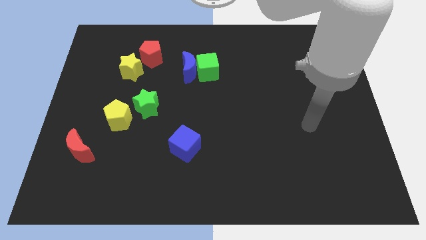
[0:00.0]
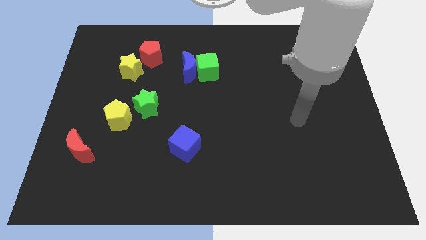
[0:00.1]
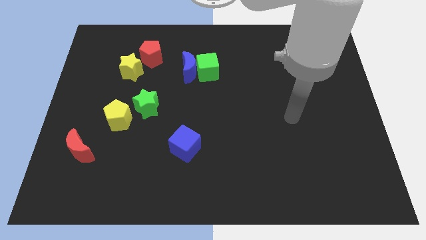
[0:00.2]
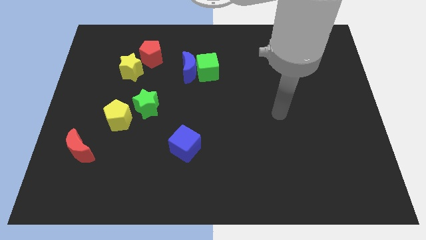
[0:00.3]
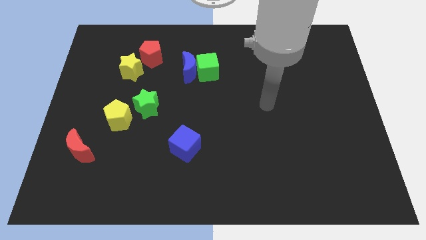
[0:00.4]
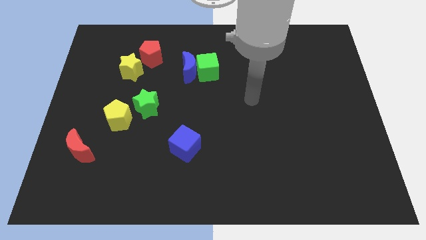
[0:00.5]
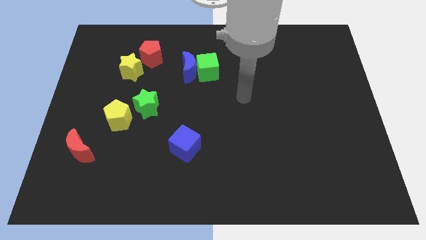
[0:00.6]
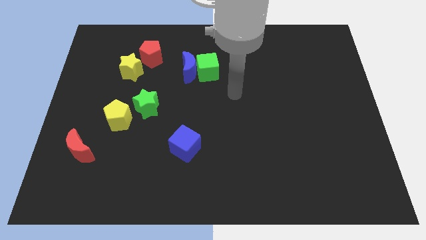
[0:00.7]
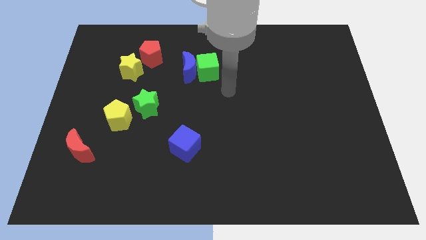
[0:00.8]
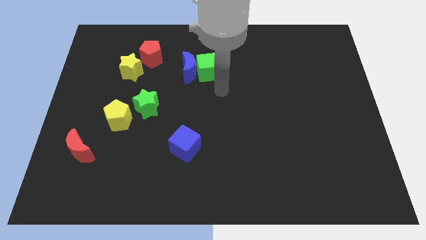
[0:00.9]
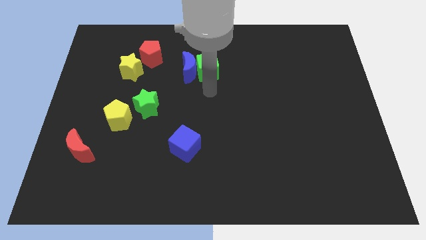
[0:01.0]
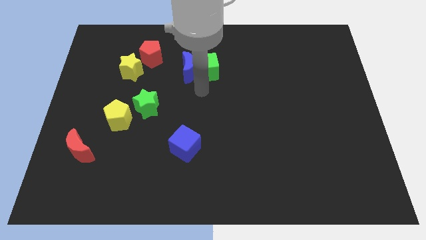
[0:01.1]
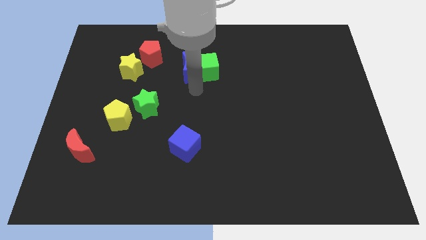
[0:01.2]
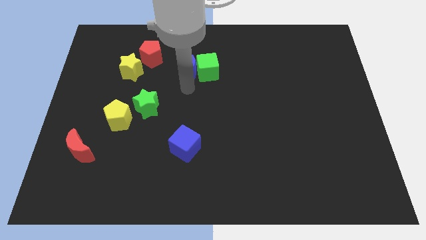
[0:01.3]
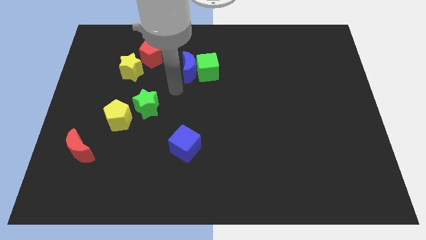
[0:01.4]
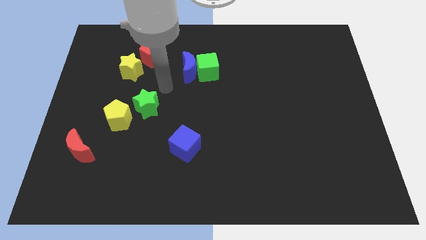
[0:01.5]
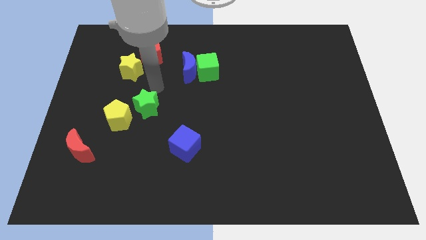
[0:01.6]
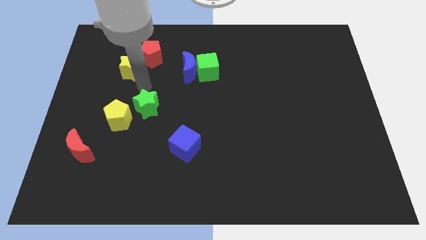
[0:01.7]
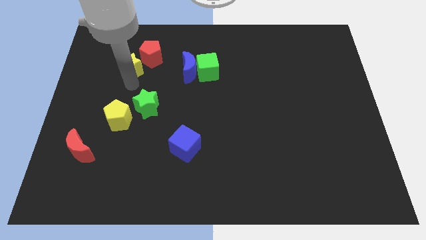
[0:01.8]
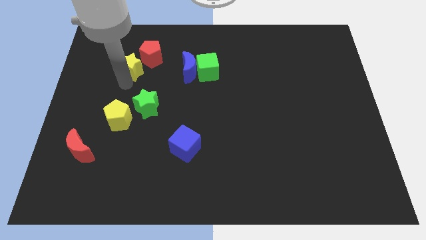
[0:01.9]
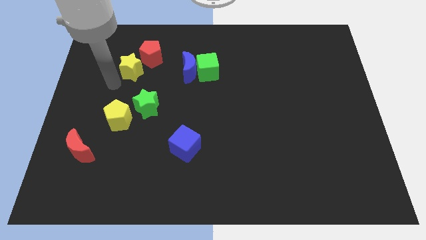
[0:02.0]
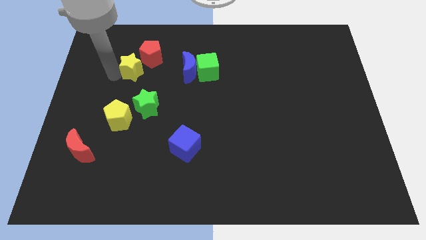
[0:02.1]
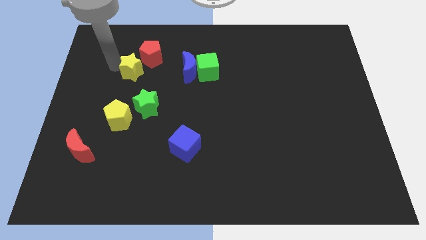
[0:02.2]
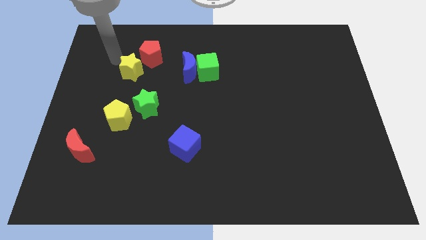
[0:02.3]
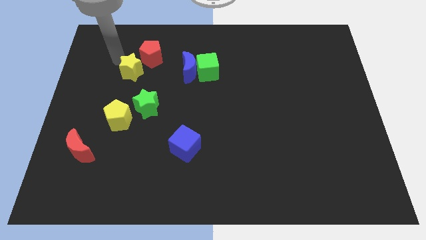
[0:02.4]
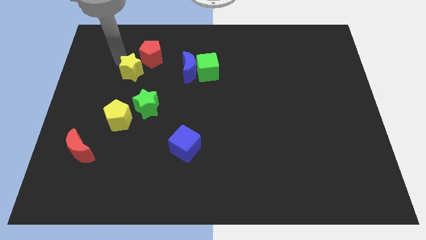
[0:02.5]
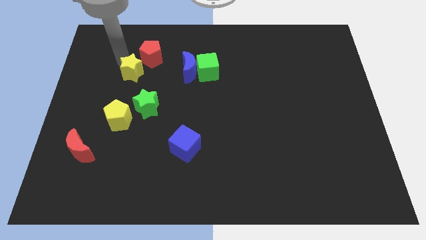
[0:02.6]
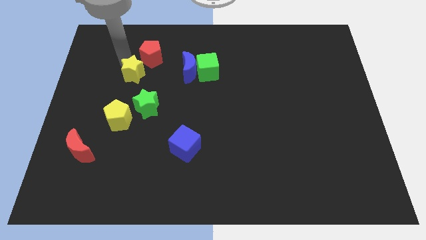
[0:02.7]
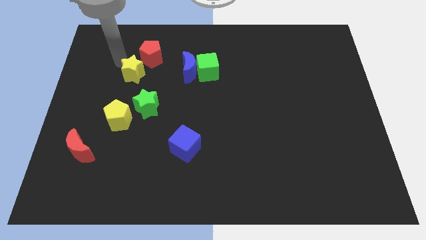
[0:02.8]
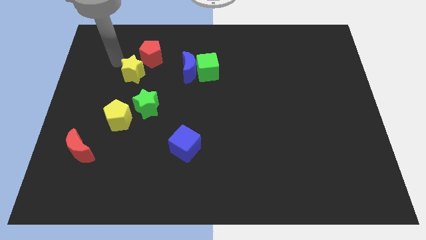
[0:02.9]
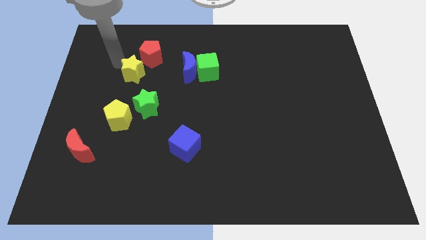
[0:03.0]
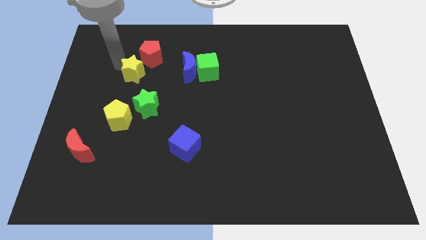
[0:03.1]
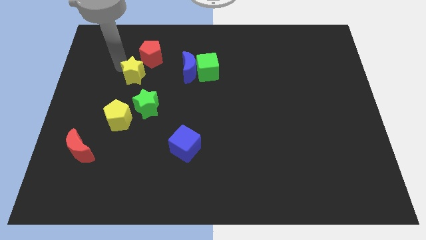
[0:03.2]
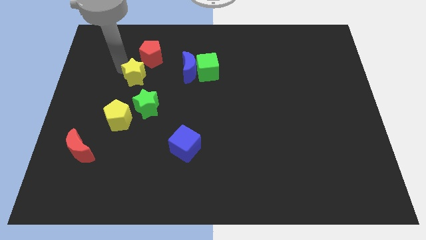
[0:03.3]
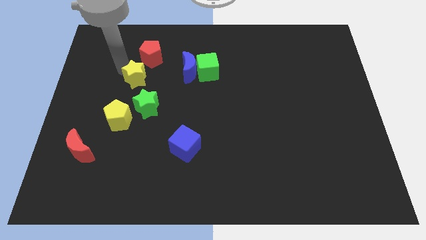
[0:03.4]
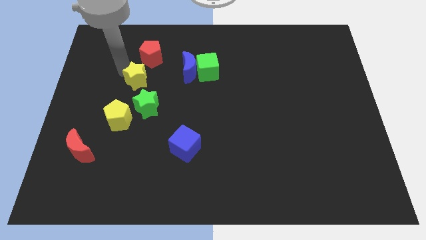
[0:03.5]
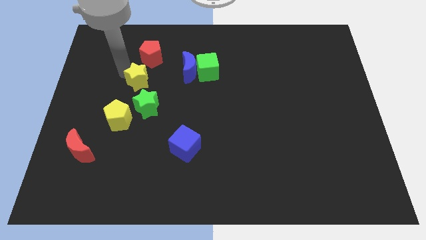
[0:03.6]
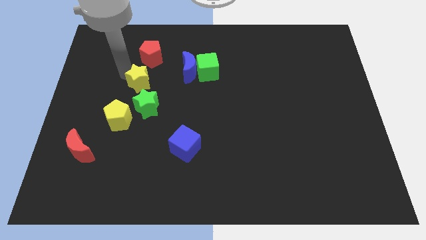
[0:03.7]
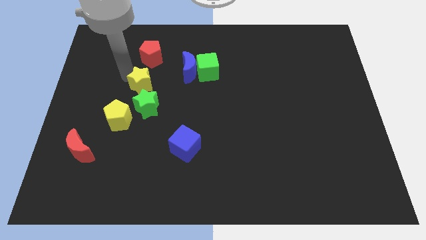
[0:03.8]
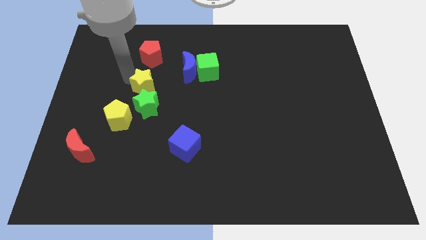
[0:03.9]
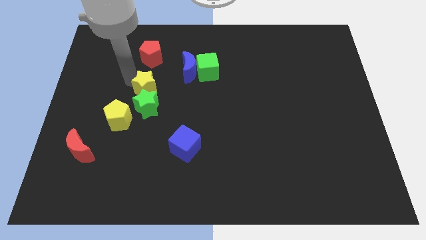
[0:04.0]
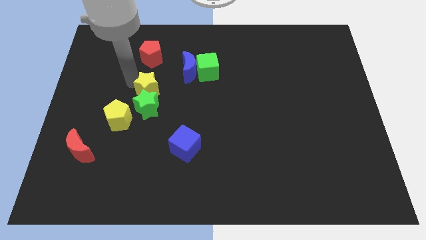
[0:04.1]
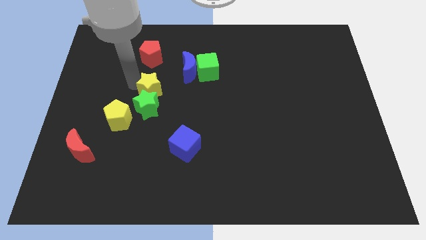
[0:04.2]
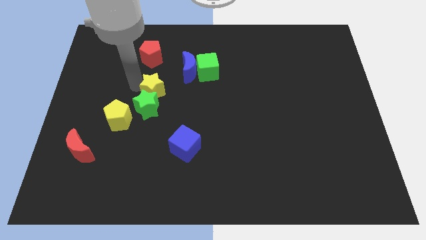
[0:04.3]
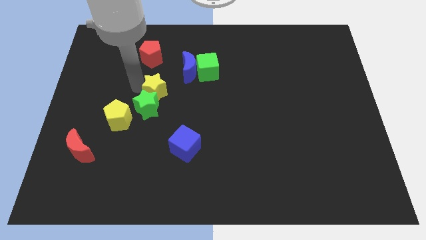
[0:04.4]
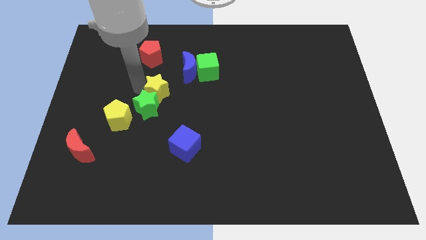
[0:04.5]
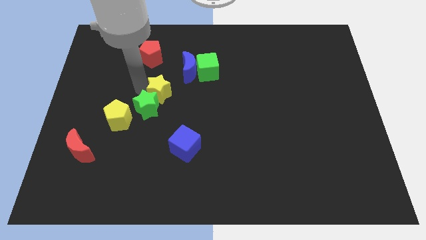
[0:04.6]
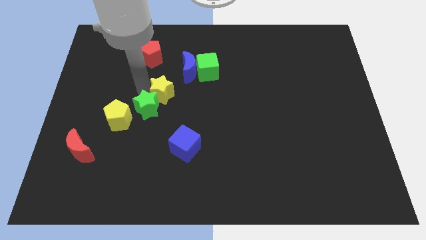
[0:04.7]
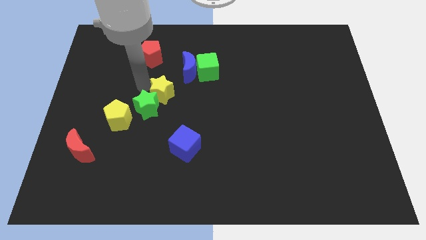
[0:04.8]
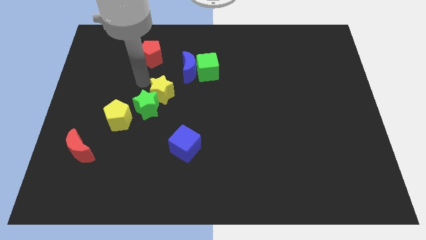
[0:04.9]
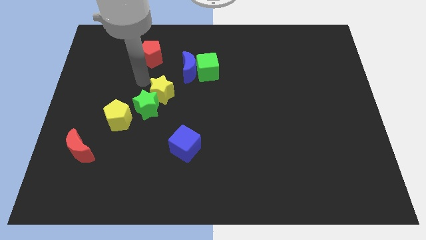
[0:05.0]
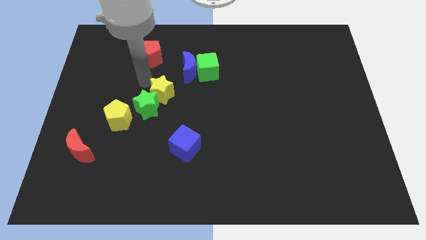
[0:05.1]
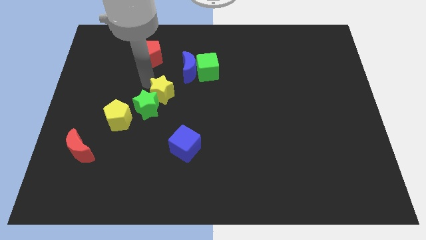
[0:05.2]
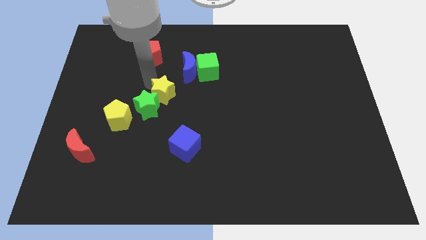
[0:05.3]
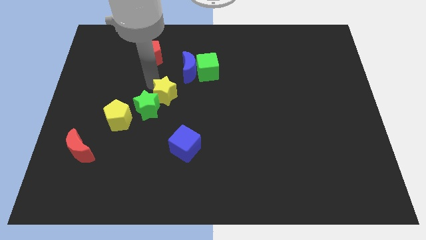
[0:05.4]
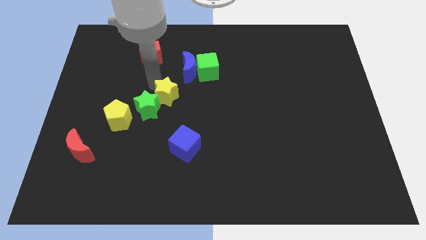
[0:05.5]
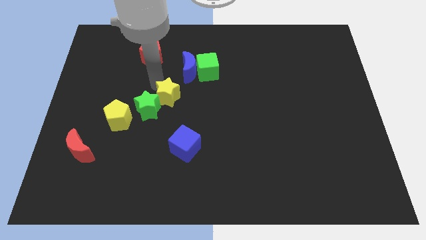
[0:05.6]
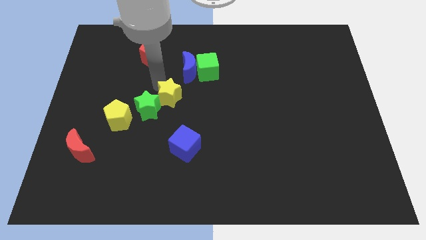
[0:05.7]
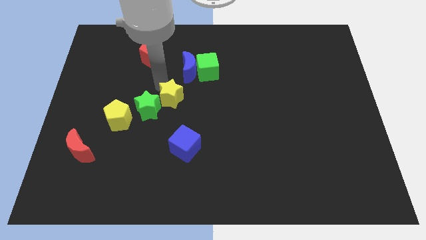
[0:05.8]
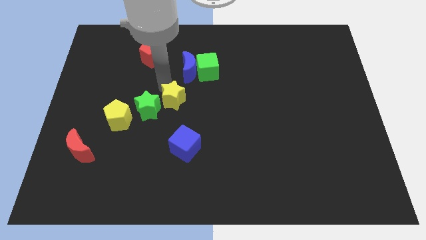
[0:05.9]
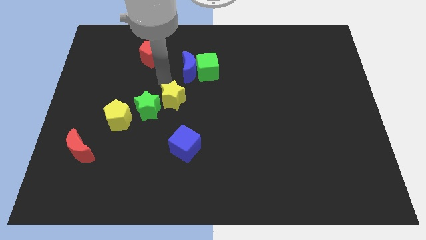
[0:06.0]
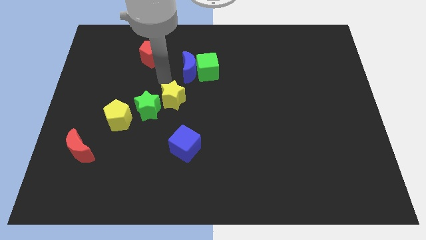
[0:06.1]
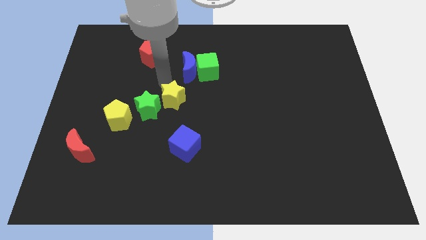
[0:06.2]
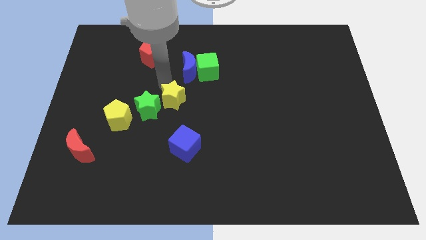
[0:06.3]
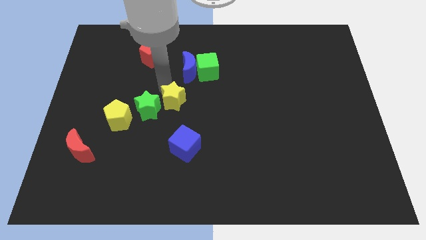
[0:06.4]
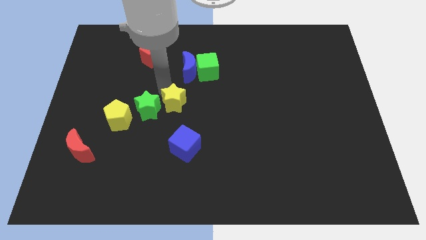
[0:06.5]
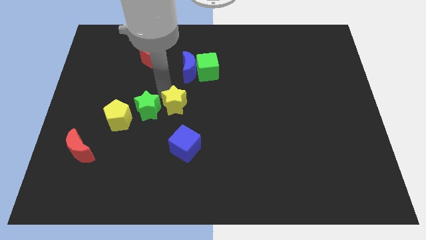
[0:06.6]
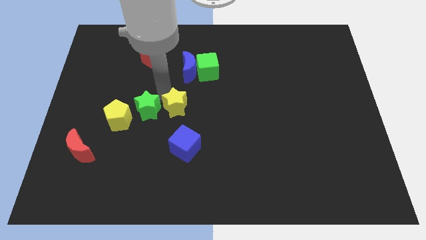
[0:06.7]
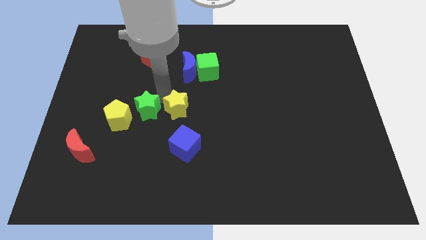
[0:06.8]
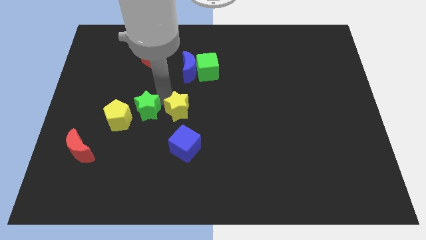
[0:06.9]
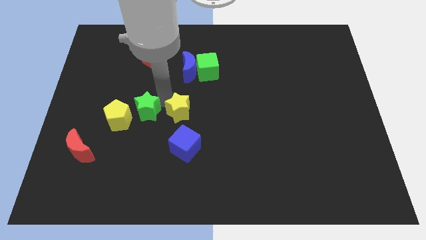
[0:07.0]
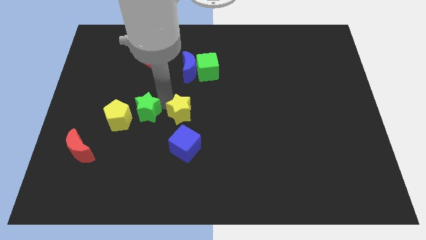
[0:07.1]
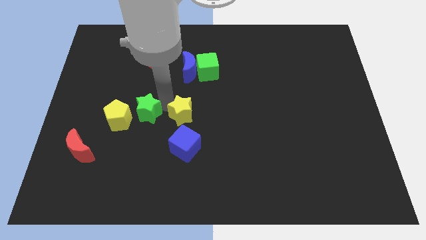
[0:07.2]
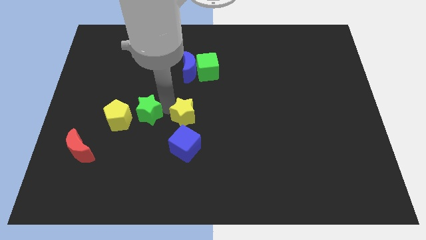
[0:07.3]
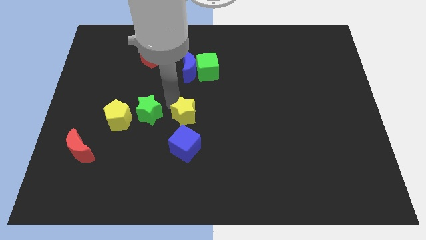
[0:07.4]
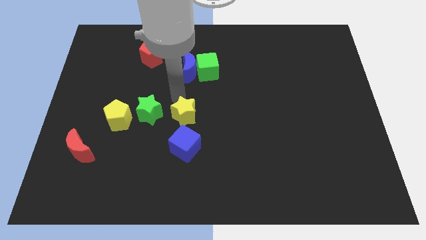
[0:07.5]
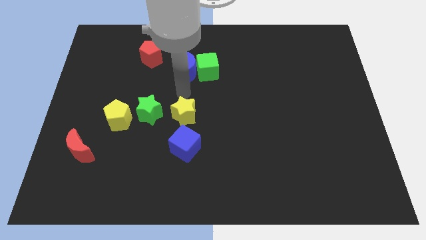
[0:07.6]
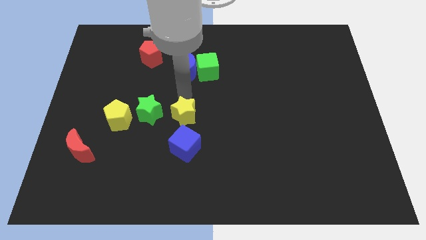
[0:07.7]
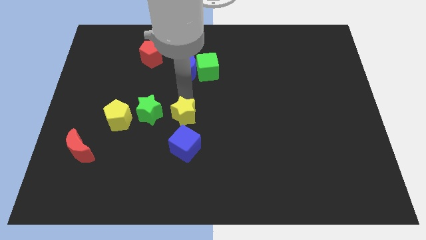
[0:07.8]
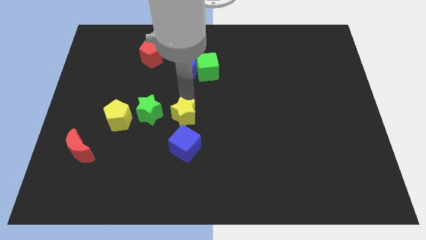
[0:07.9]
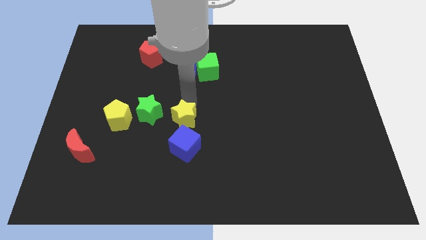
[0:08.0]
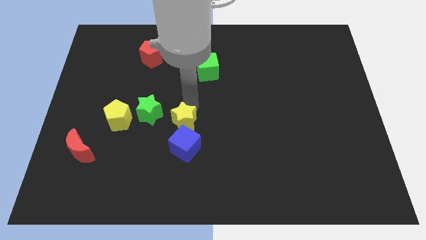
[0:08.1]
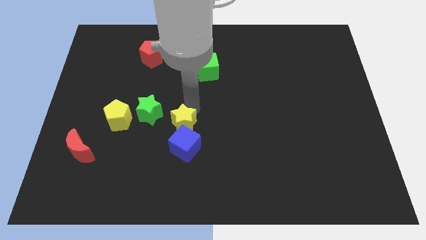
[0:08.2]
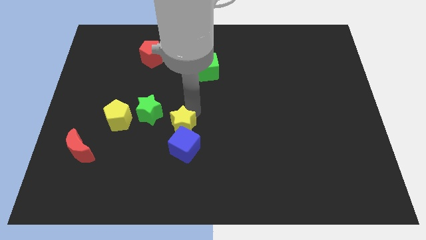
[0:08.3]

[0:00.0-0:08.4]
move the yellow star next to the blue cube
